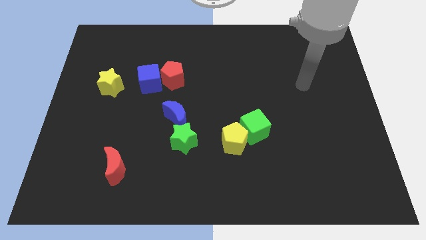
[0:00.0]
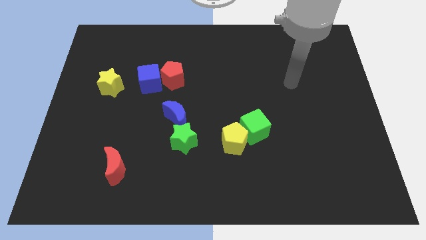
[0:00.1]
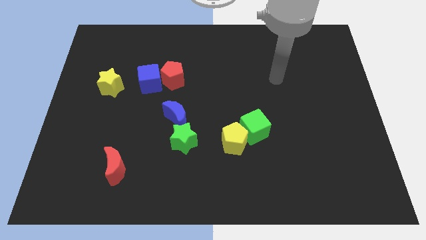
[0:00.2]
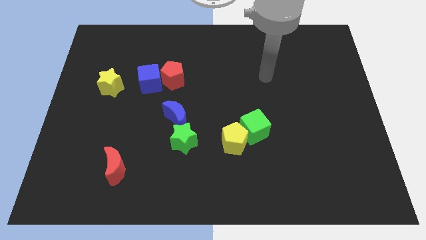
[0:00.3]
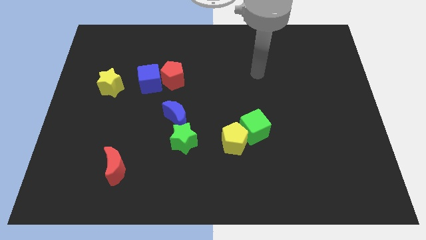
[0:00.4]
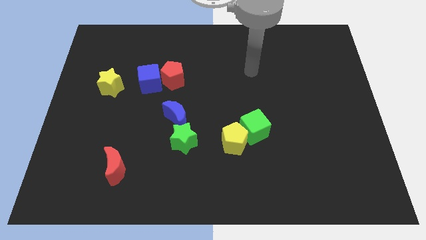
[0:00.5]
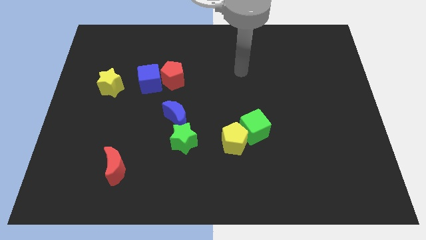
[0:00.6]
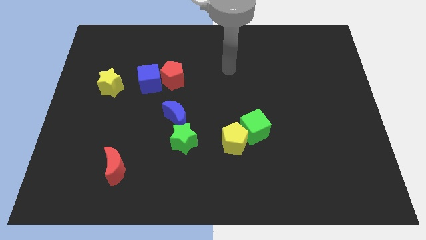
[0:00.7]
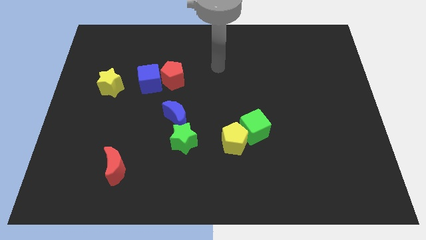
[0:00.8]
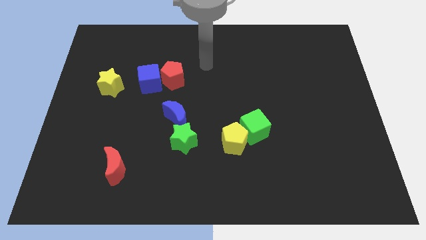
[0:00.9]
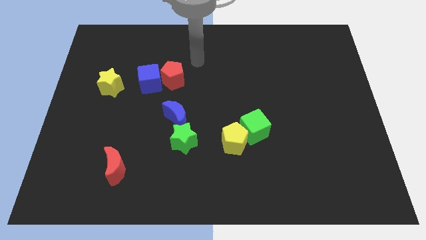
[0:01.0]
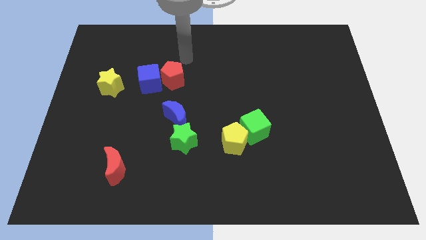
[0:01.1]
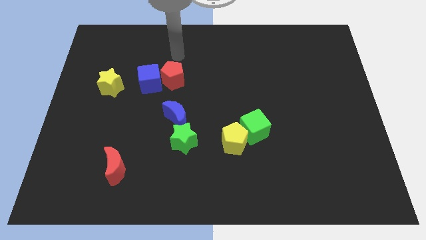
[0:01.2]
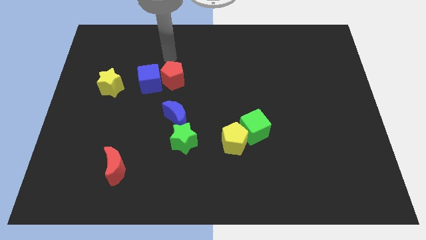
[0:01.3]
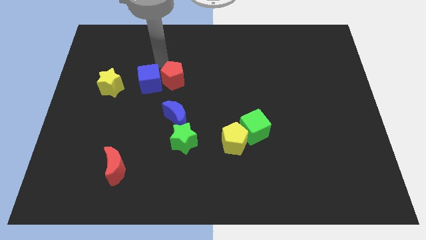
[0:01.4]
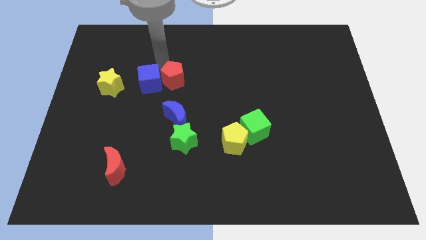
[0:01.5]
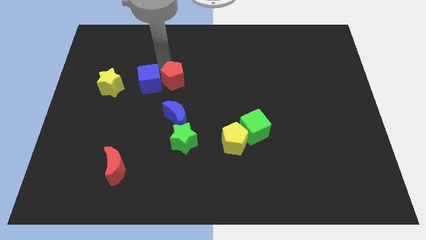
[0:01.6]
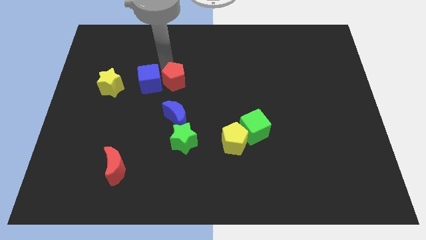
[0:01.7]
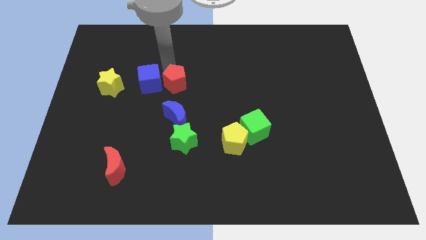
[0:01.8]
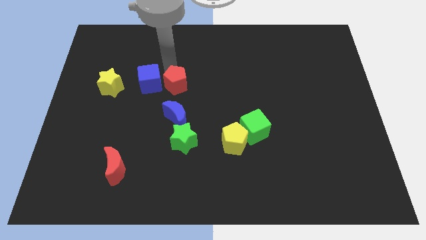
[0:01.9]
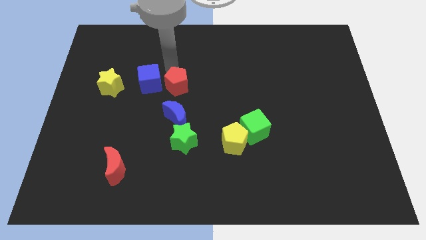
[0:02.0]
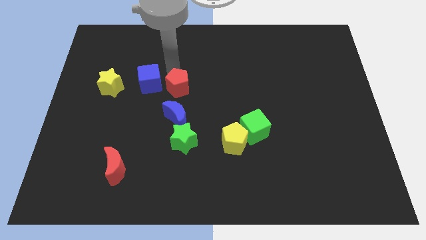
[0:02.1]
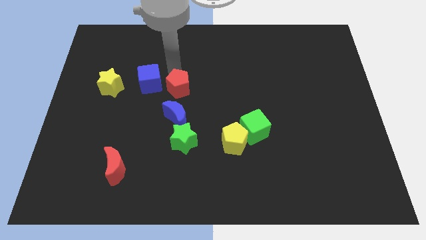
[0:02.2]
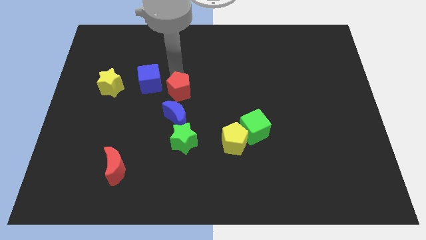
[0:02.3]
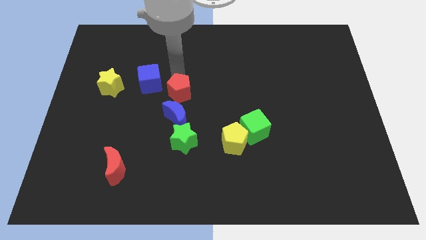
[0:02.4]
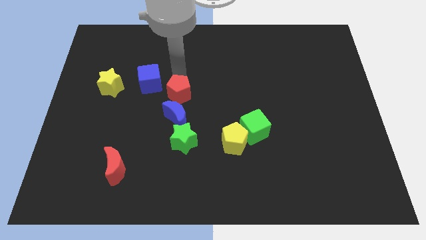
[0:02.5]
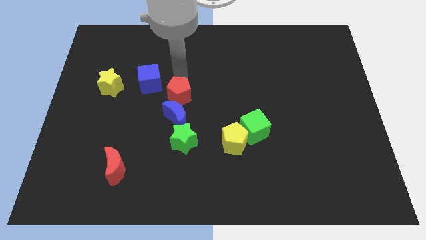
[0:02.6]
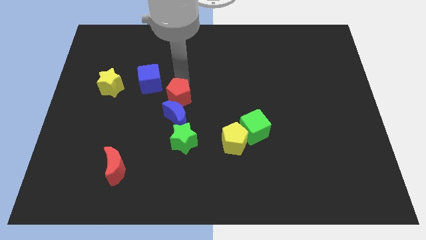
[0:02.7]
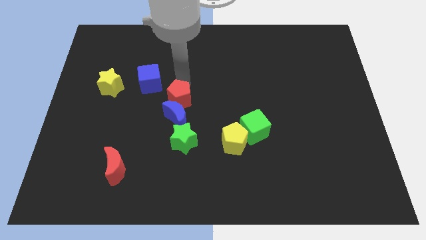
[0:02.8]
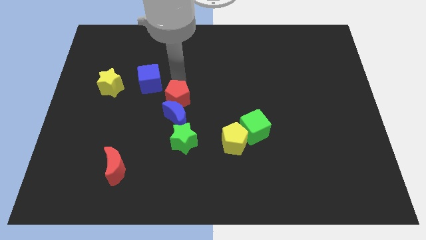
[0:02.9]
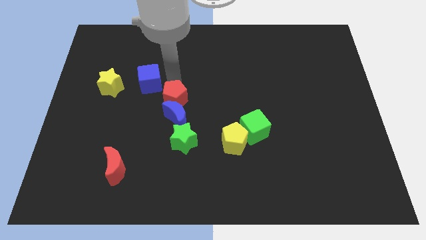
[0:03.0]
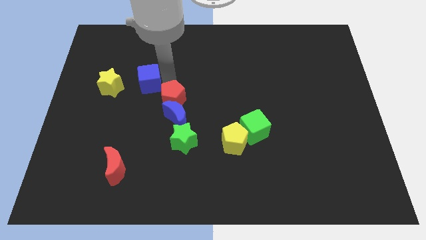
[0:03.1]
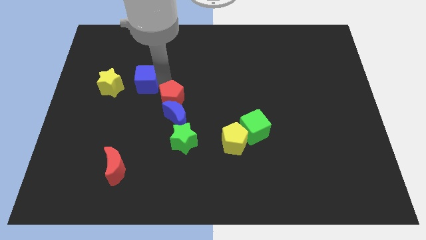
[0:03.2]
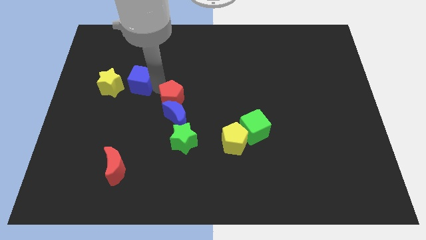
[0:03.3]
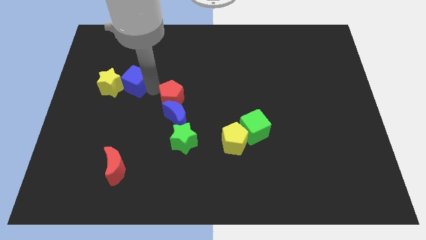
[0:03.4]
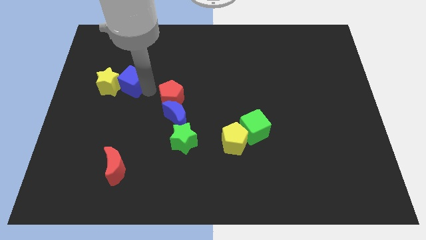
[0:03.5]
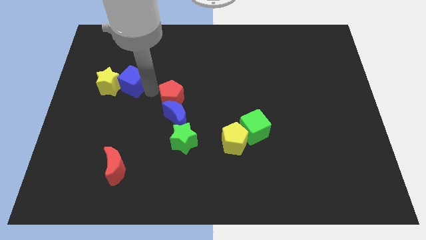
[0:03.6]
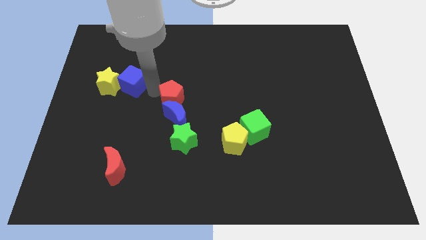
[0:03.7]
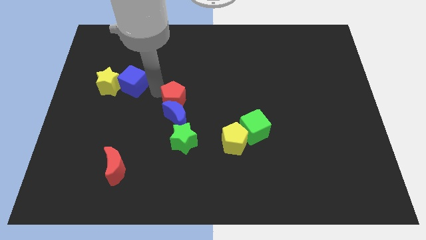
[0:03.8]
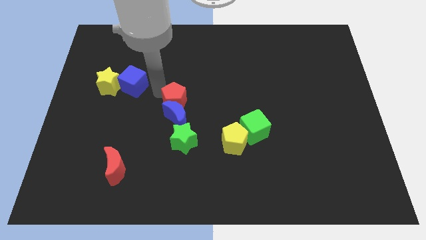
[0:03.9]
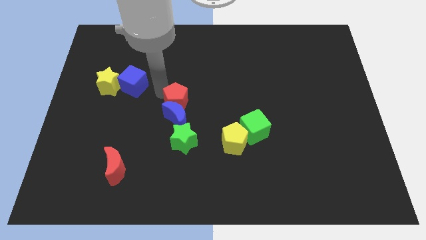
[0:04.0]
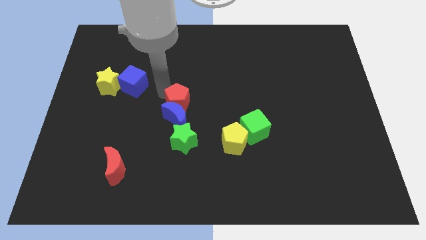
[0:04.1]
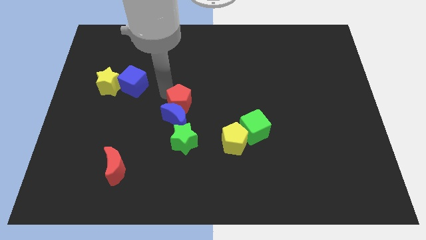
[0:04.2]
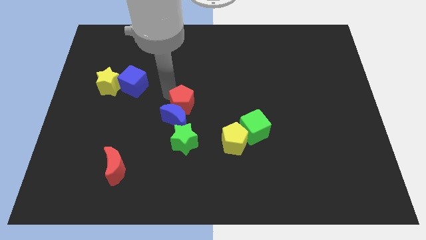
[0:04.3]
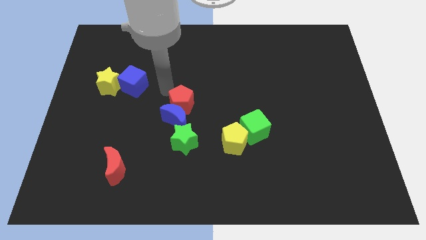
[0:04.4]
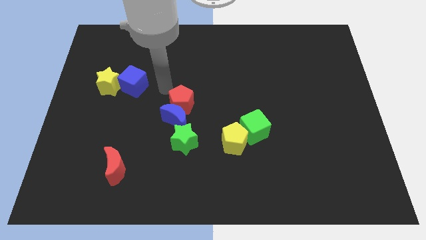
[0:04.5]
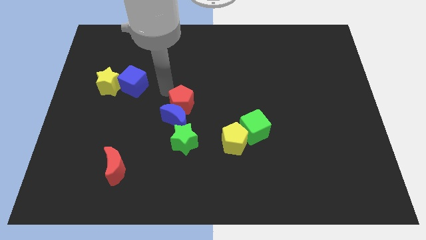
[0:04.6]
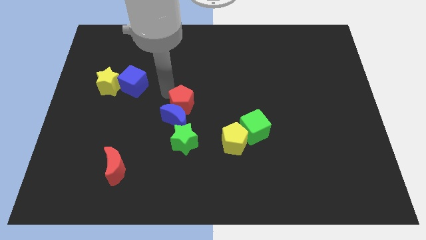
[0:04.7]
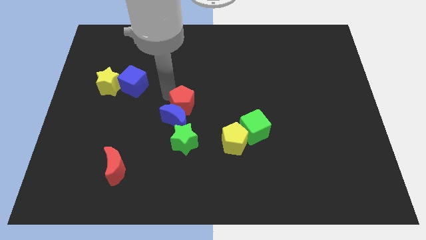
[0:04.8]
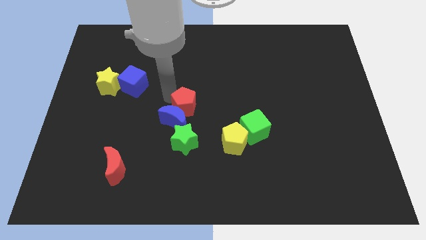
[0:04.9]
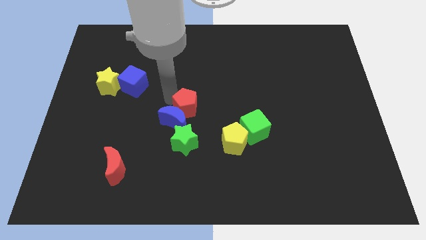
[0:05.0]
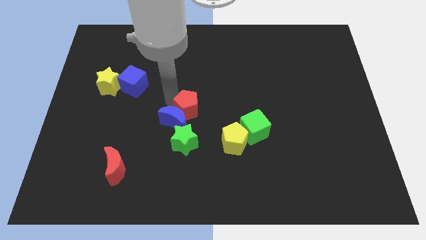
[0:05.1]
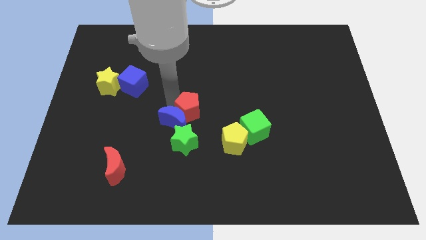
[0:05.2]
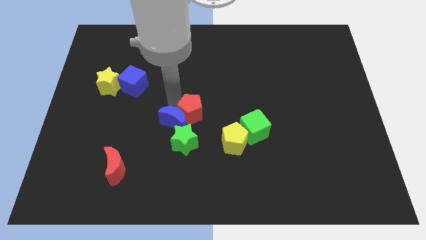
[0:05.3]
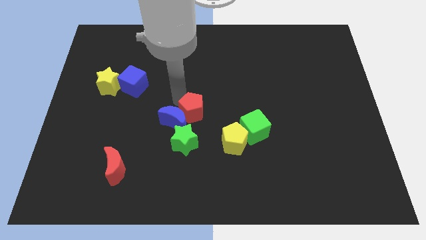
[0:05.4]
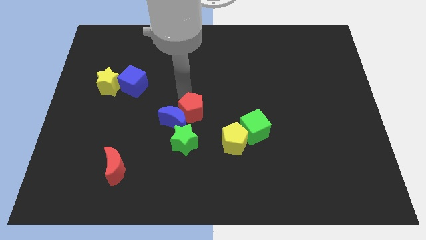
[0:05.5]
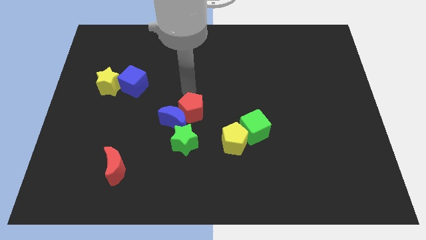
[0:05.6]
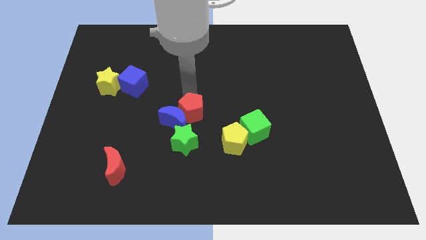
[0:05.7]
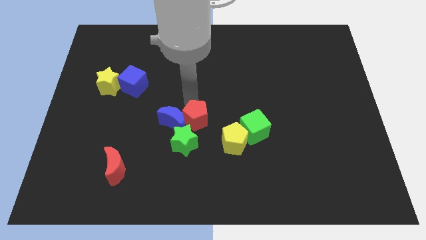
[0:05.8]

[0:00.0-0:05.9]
push the red pentagon to the bottom right side of the blue moon
